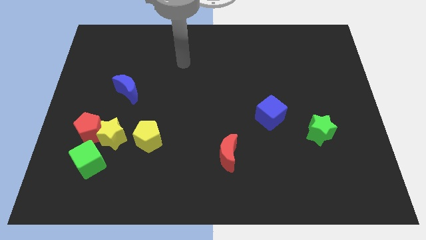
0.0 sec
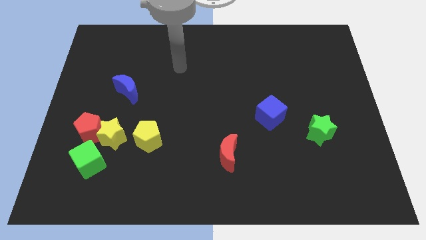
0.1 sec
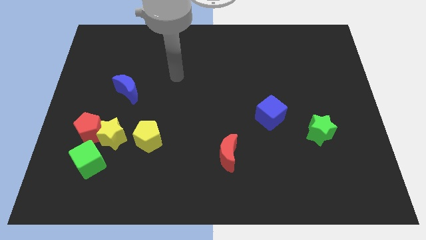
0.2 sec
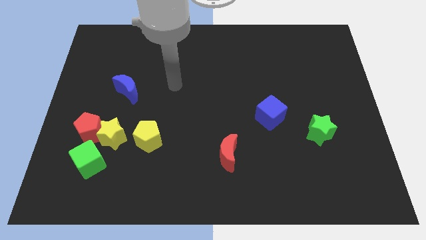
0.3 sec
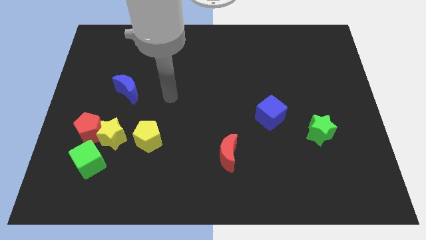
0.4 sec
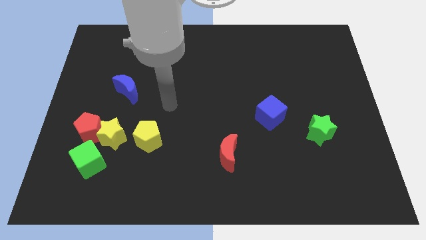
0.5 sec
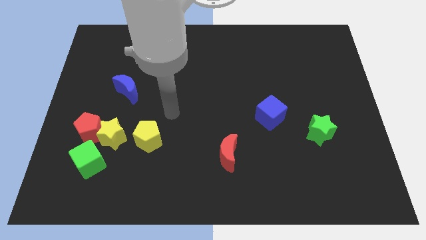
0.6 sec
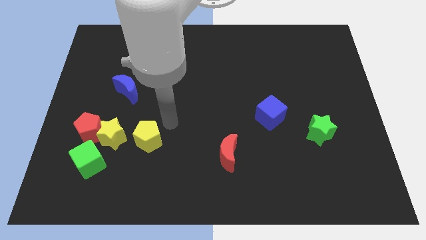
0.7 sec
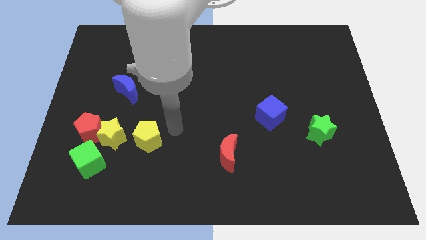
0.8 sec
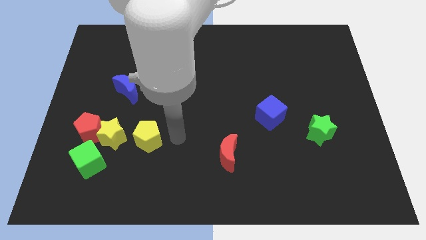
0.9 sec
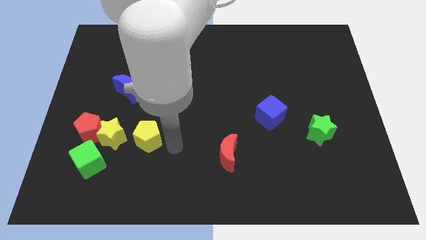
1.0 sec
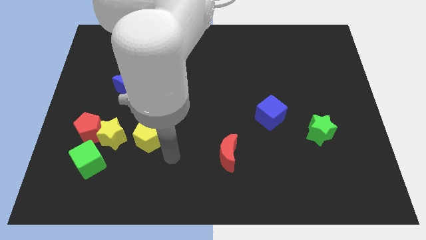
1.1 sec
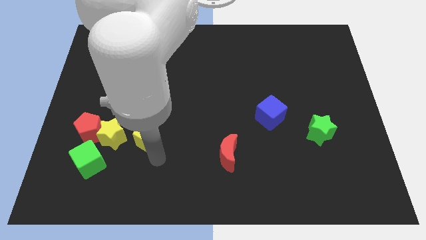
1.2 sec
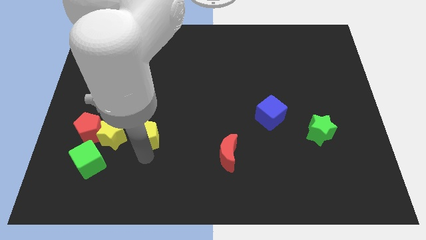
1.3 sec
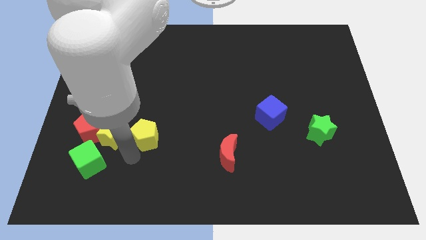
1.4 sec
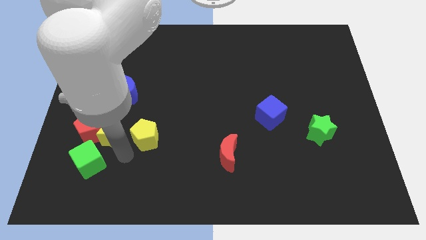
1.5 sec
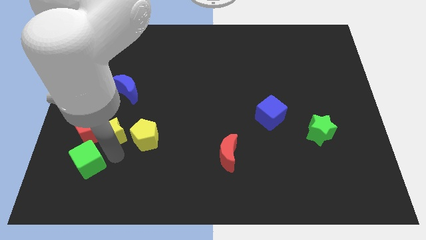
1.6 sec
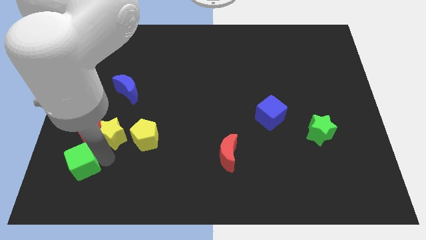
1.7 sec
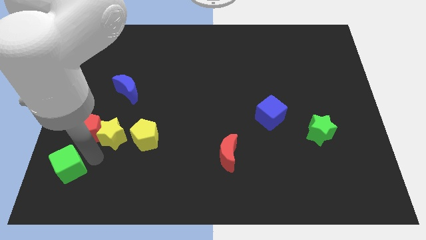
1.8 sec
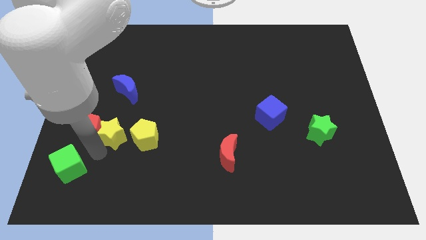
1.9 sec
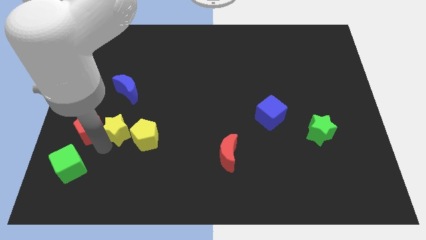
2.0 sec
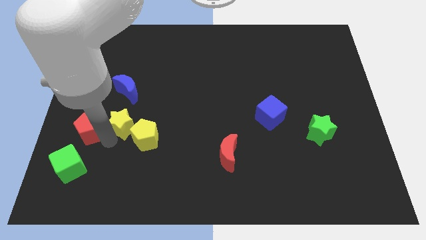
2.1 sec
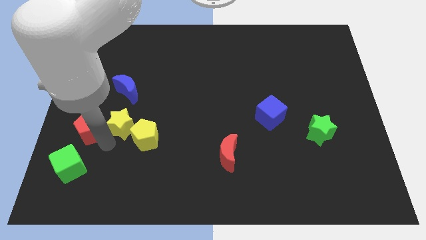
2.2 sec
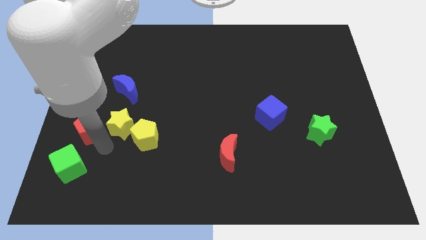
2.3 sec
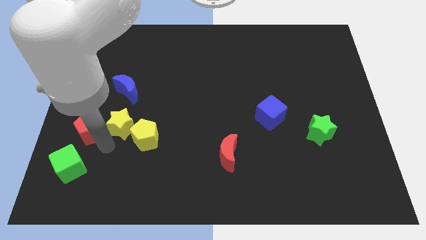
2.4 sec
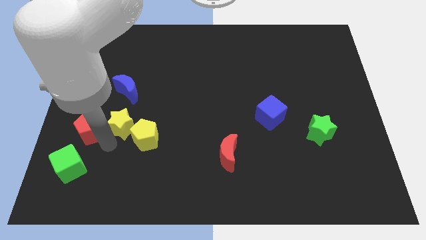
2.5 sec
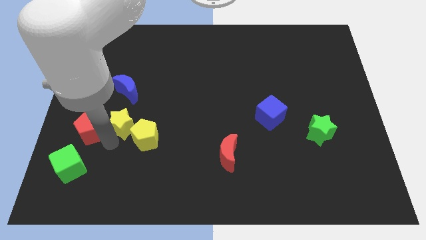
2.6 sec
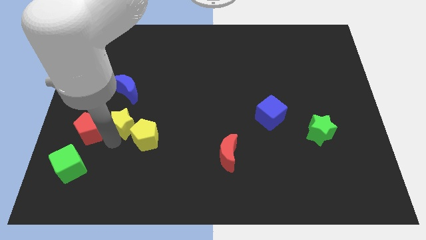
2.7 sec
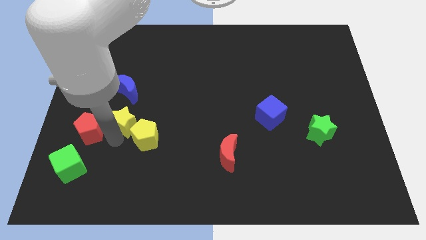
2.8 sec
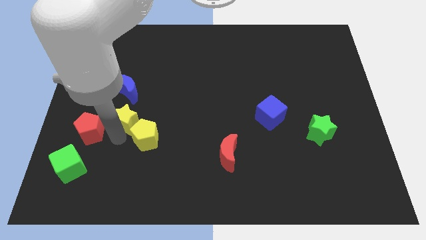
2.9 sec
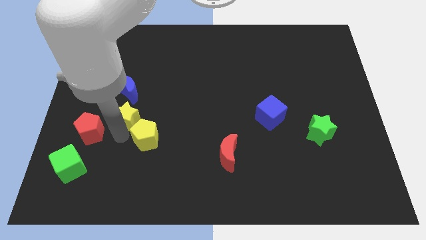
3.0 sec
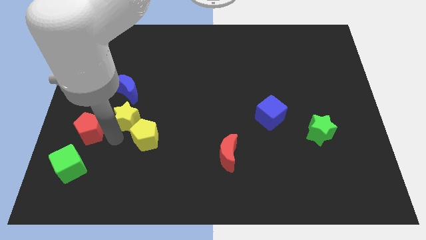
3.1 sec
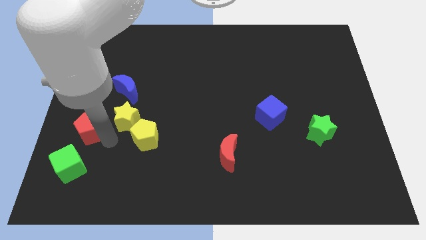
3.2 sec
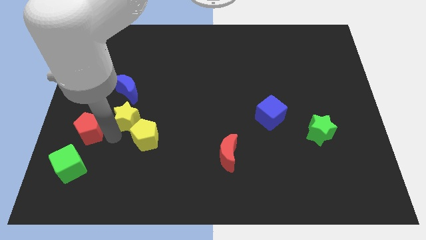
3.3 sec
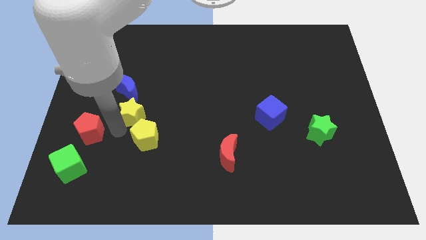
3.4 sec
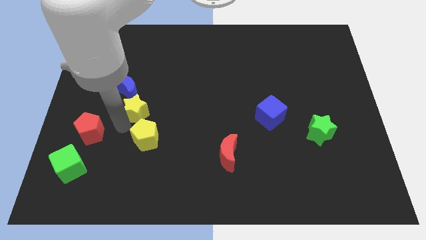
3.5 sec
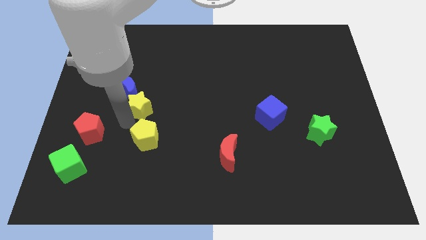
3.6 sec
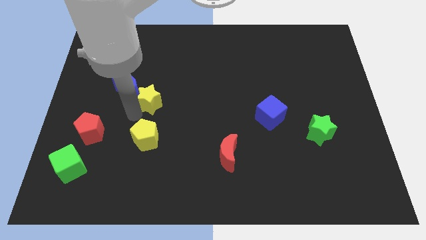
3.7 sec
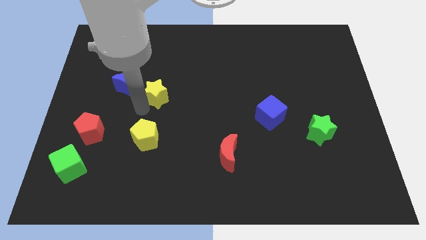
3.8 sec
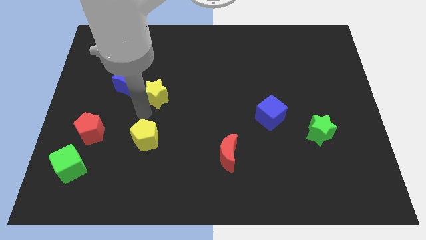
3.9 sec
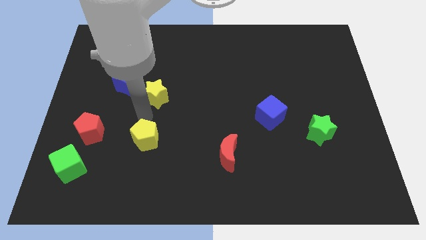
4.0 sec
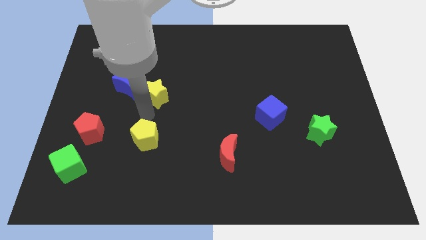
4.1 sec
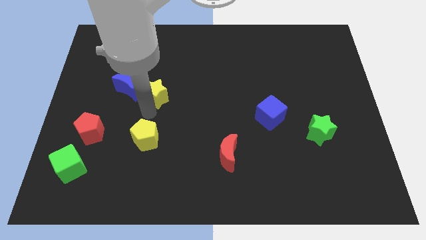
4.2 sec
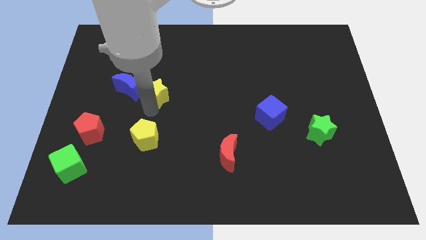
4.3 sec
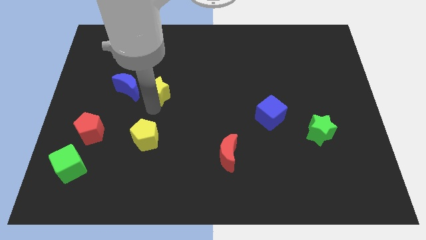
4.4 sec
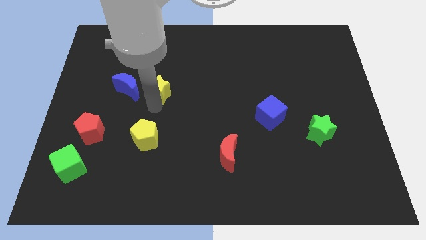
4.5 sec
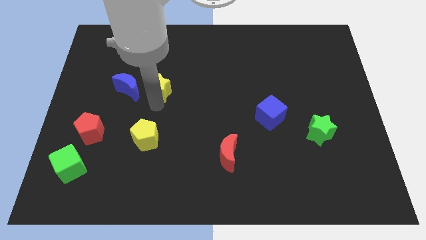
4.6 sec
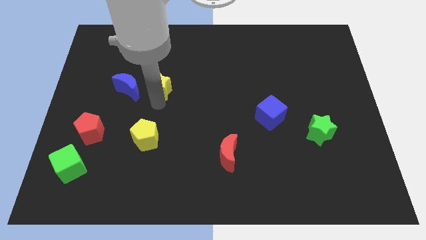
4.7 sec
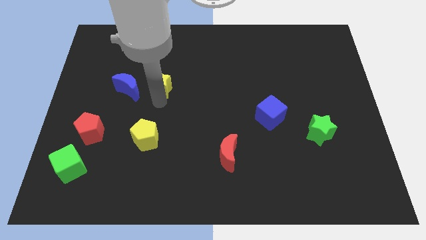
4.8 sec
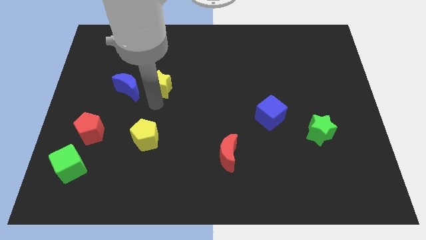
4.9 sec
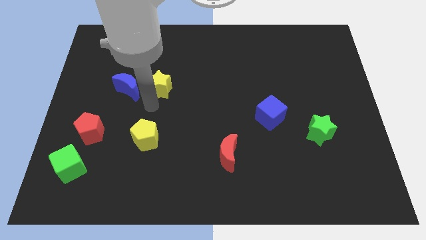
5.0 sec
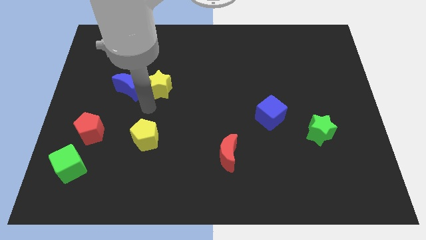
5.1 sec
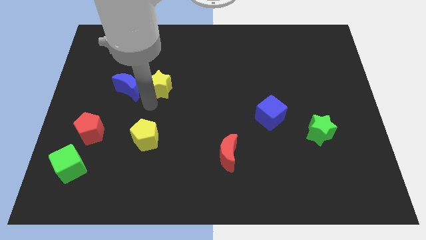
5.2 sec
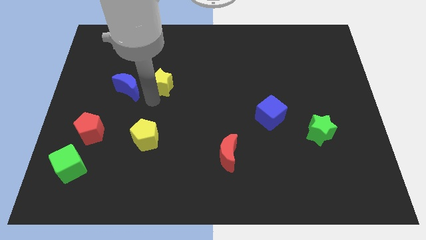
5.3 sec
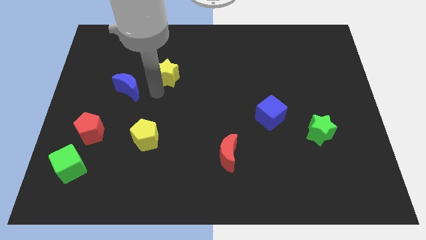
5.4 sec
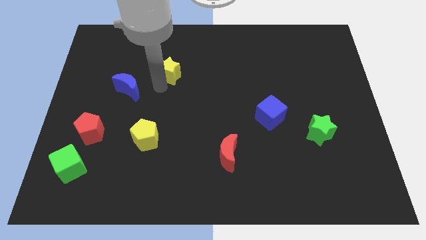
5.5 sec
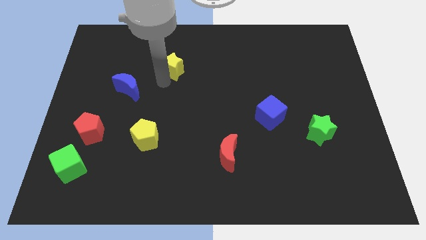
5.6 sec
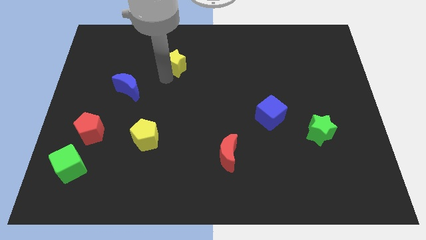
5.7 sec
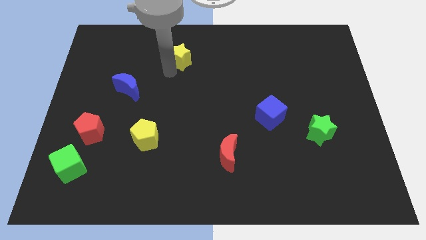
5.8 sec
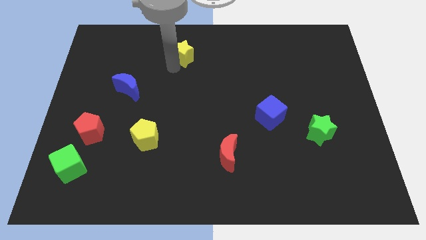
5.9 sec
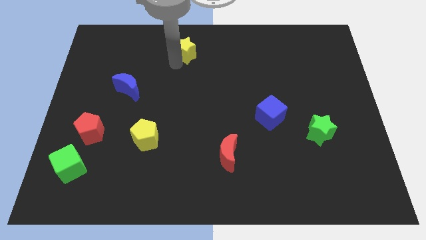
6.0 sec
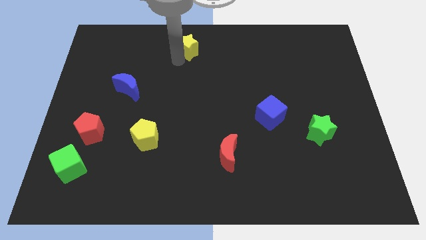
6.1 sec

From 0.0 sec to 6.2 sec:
put the yellow star to the top side

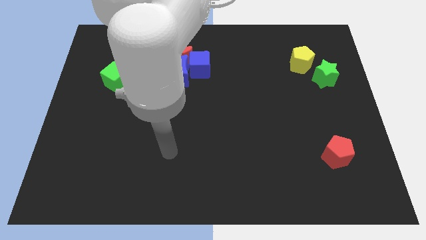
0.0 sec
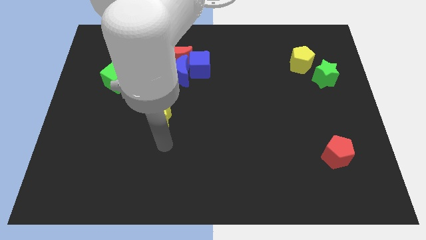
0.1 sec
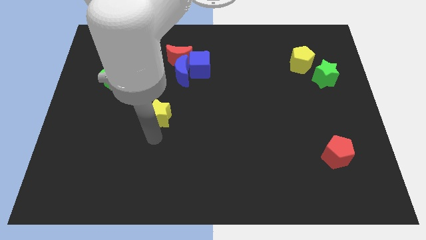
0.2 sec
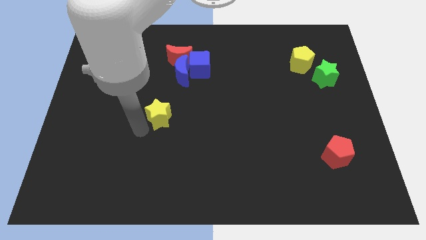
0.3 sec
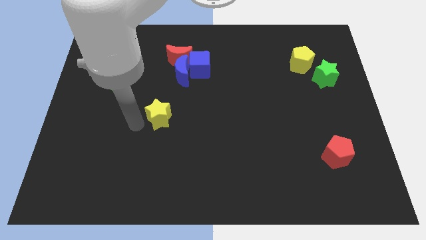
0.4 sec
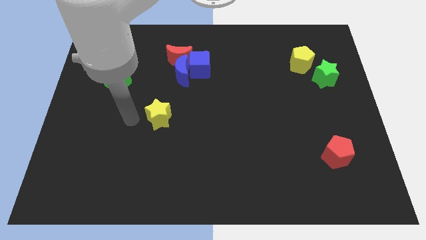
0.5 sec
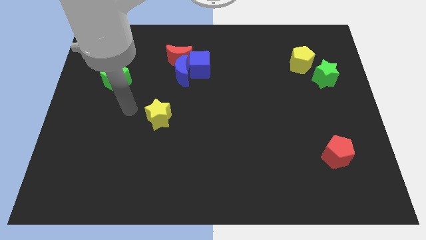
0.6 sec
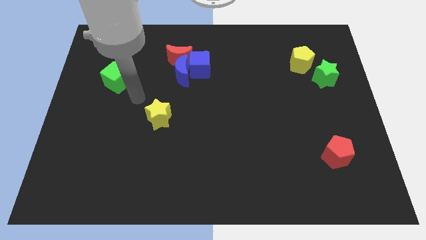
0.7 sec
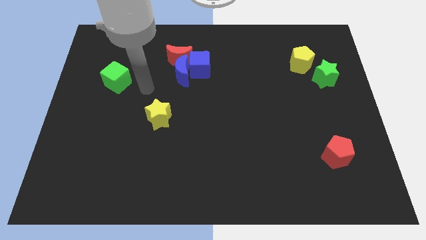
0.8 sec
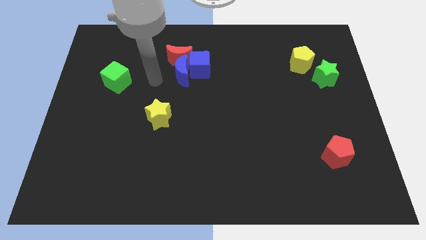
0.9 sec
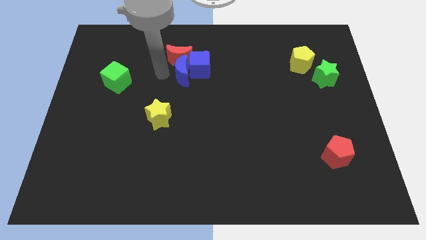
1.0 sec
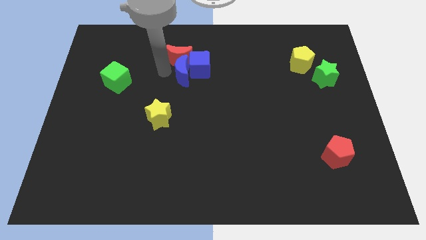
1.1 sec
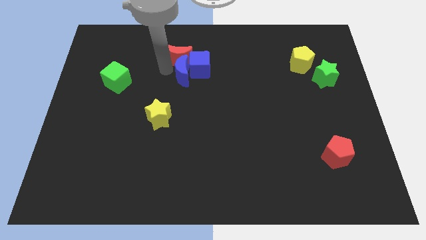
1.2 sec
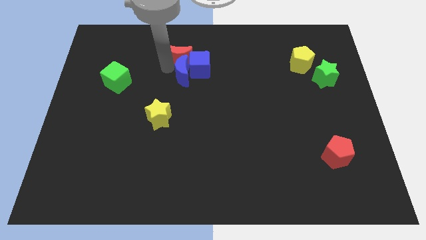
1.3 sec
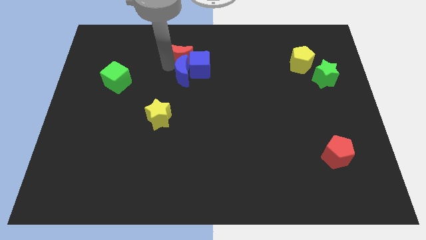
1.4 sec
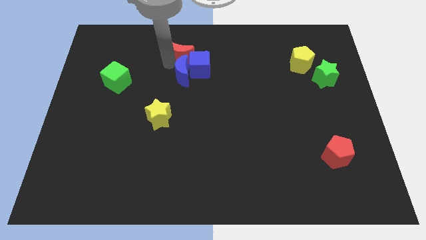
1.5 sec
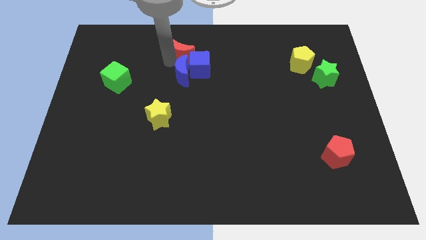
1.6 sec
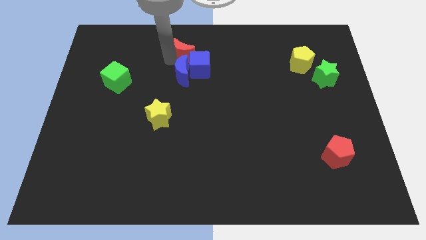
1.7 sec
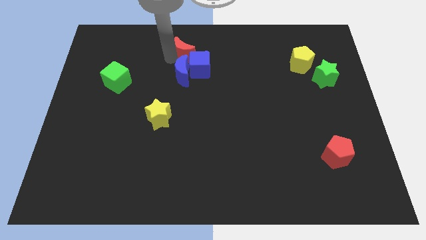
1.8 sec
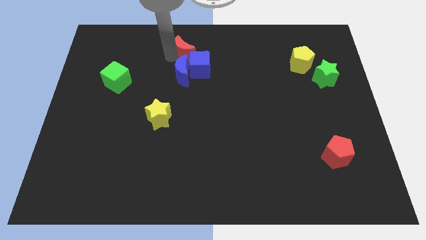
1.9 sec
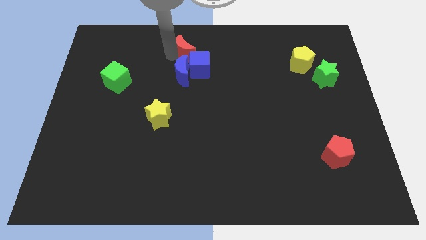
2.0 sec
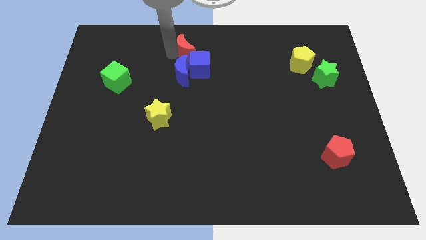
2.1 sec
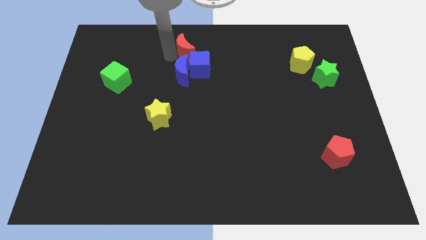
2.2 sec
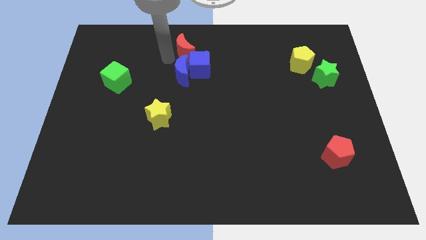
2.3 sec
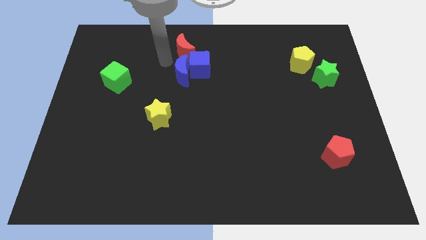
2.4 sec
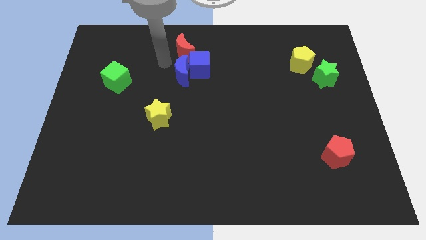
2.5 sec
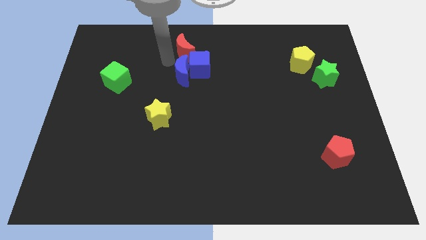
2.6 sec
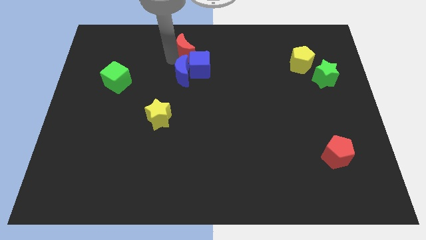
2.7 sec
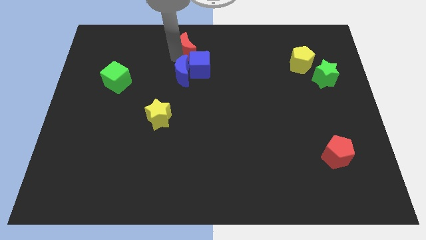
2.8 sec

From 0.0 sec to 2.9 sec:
slide the red moon to the top
